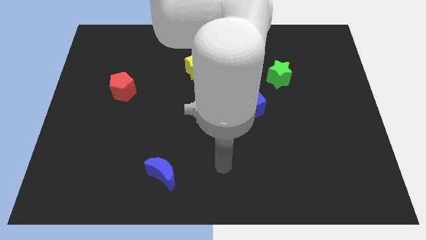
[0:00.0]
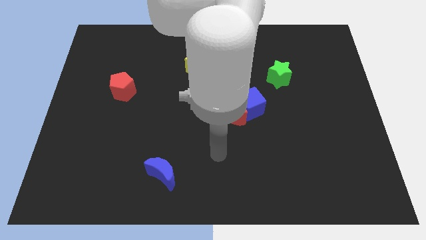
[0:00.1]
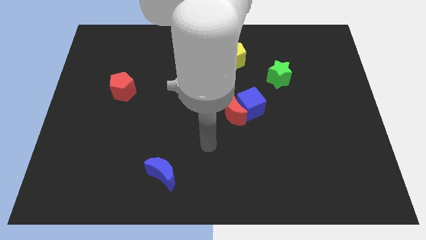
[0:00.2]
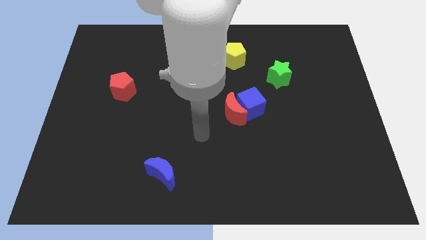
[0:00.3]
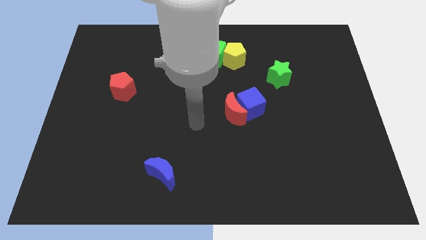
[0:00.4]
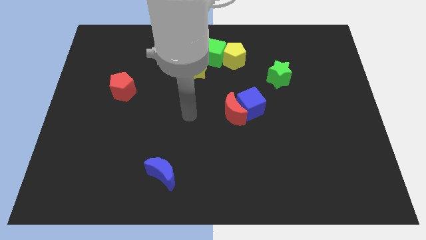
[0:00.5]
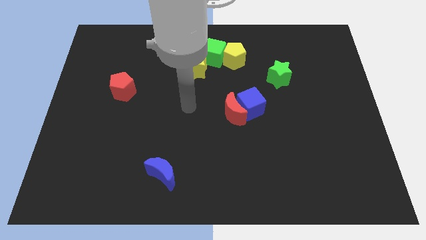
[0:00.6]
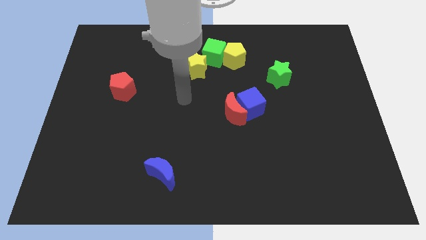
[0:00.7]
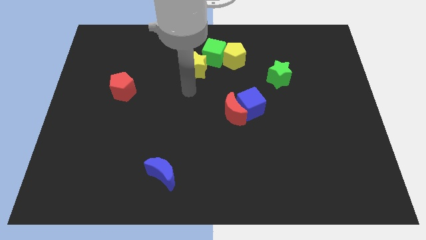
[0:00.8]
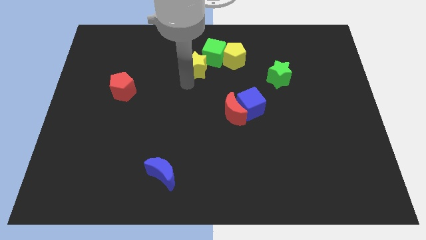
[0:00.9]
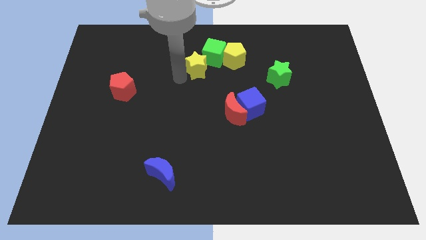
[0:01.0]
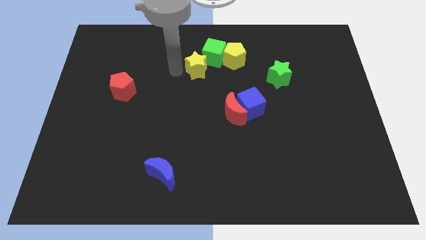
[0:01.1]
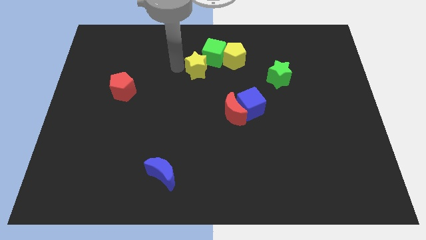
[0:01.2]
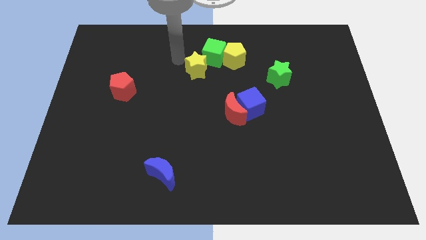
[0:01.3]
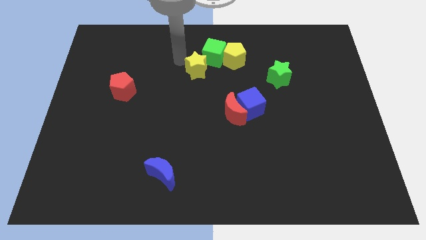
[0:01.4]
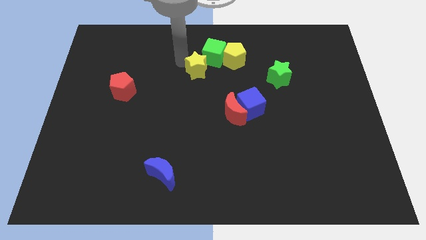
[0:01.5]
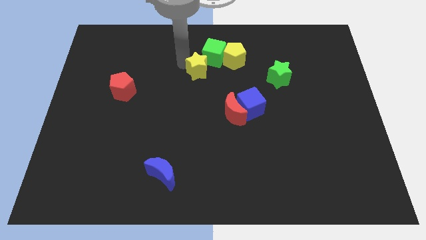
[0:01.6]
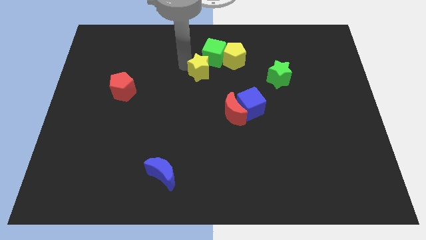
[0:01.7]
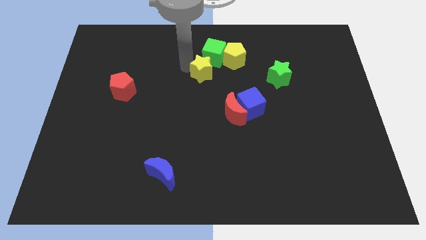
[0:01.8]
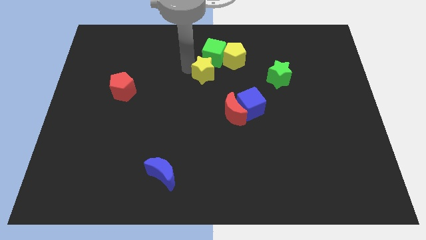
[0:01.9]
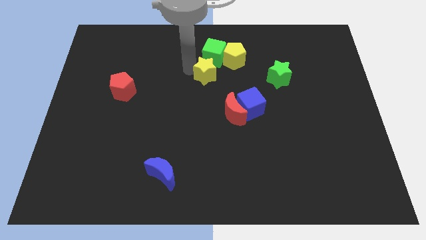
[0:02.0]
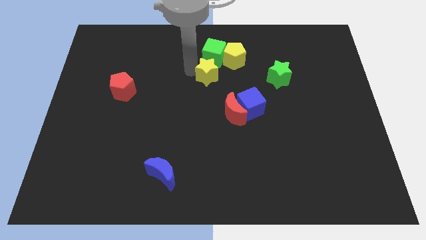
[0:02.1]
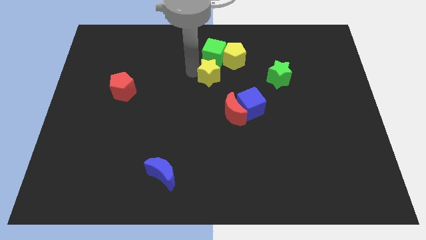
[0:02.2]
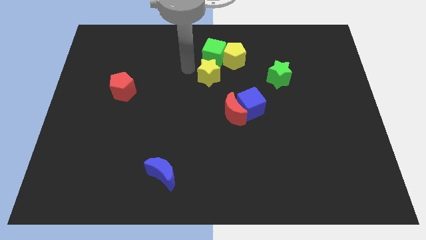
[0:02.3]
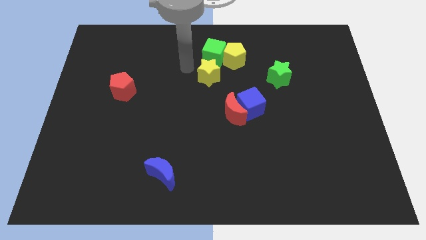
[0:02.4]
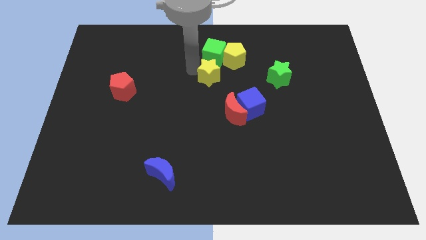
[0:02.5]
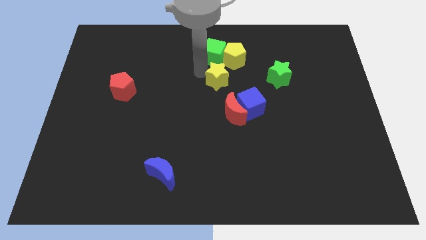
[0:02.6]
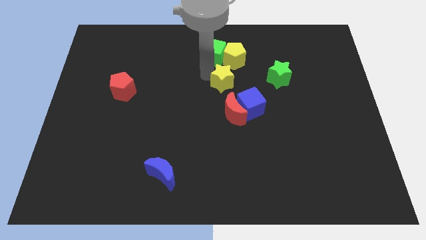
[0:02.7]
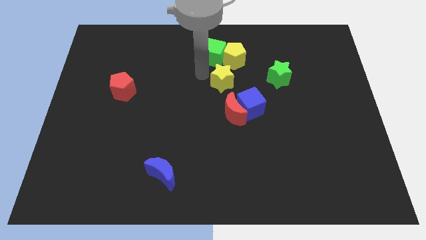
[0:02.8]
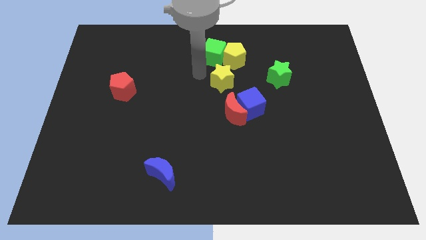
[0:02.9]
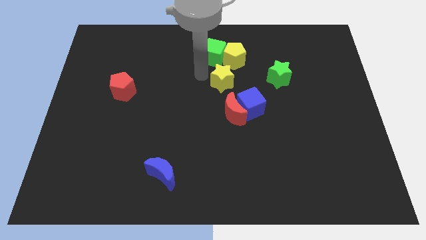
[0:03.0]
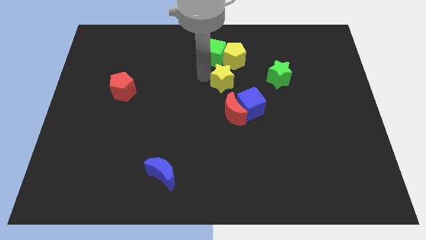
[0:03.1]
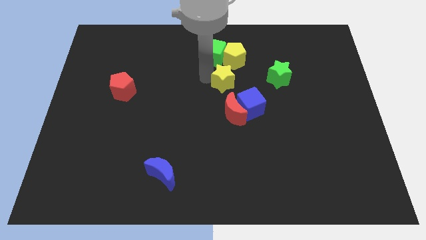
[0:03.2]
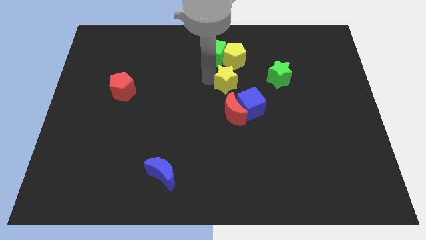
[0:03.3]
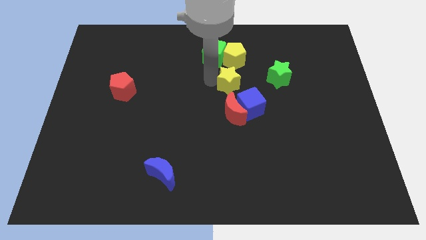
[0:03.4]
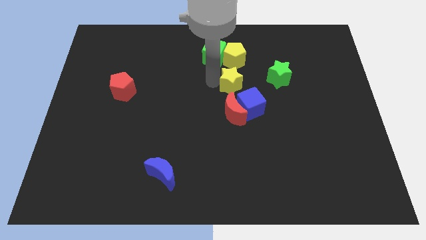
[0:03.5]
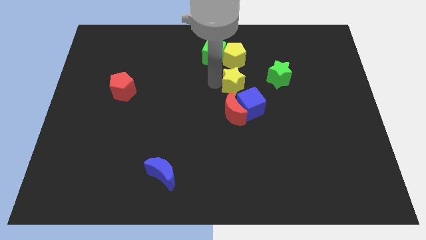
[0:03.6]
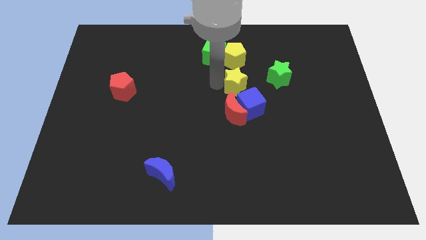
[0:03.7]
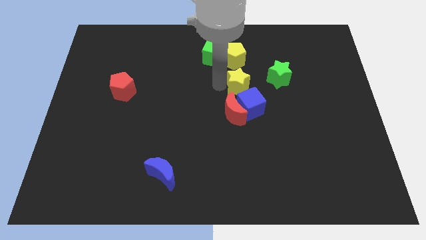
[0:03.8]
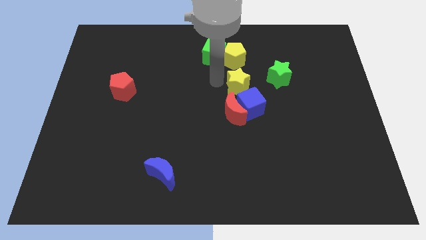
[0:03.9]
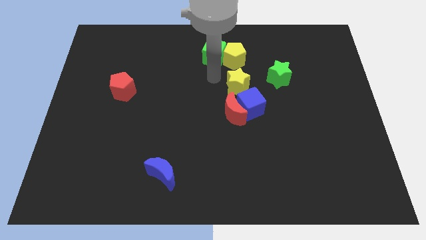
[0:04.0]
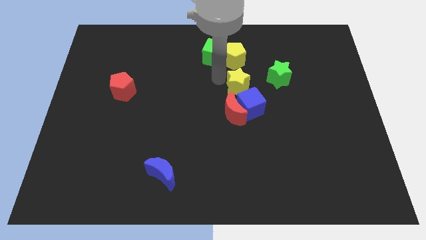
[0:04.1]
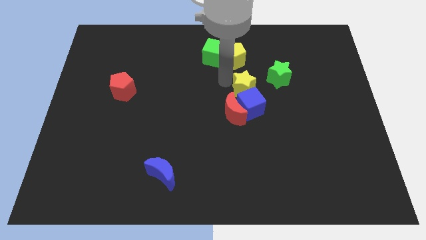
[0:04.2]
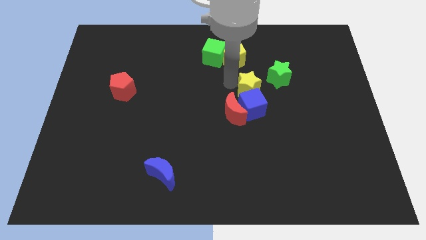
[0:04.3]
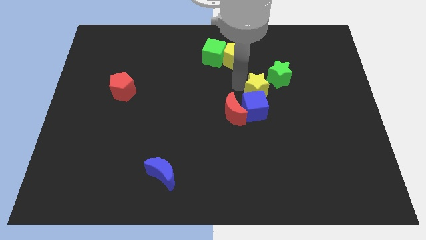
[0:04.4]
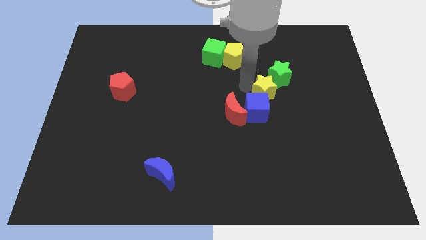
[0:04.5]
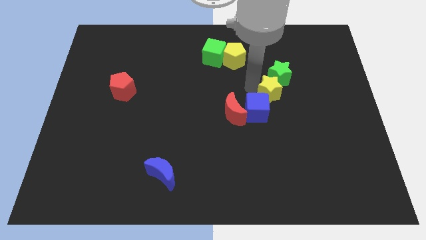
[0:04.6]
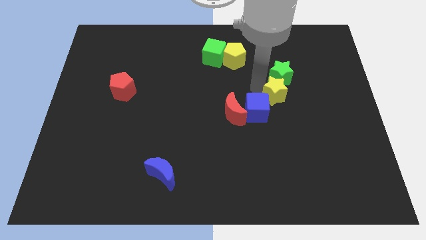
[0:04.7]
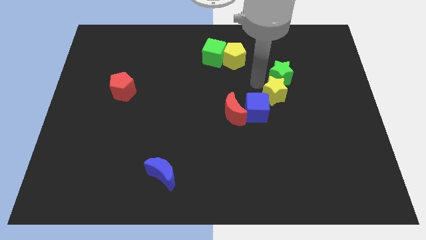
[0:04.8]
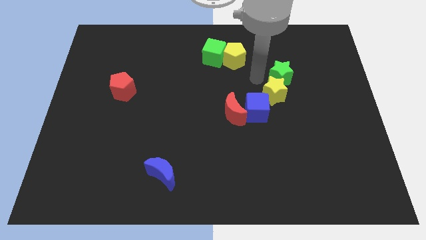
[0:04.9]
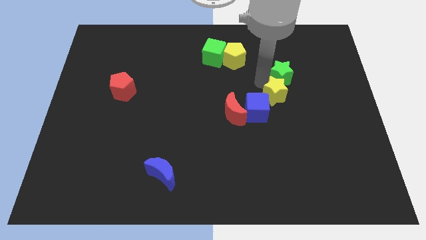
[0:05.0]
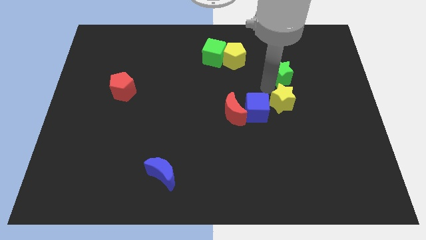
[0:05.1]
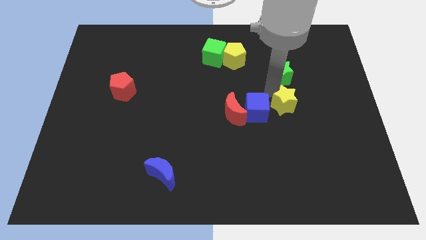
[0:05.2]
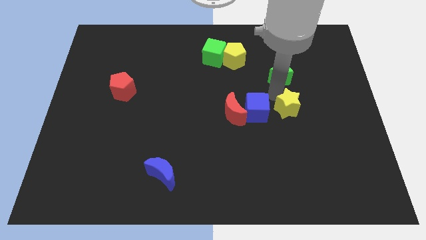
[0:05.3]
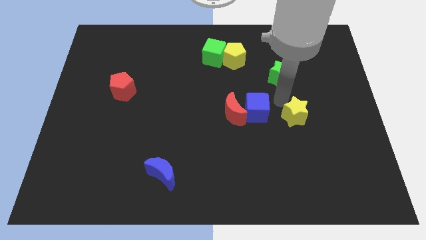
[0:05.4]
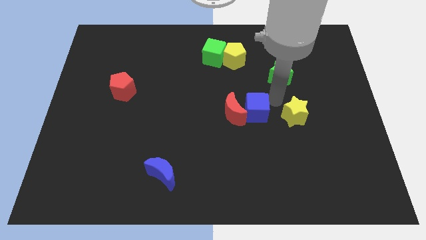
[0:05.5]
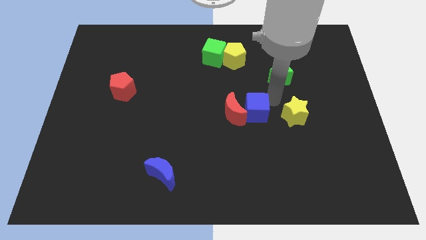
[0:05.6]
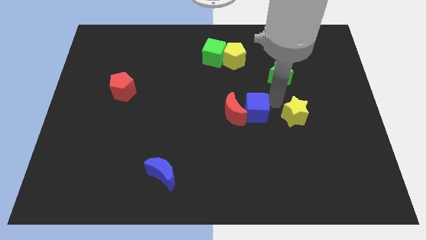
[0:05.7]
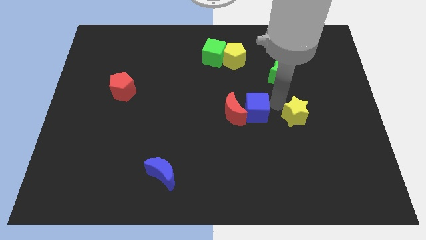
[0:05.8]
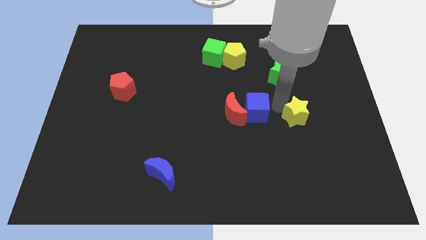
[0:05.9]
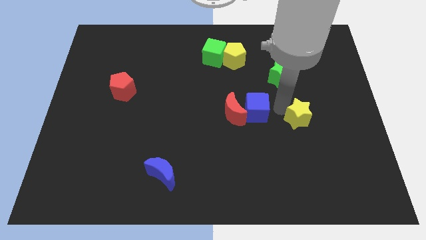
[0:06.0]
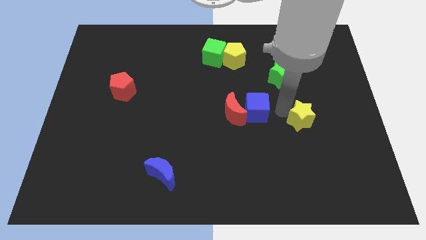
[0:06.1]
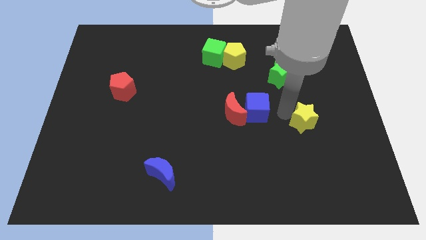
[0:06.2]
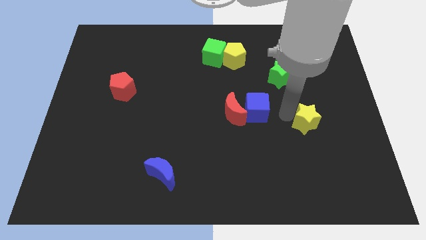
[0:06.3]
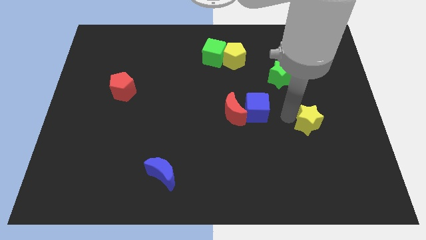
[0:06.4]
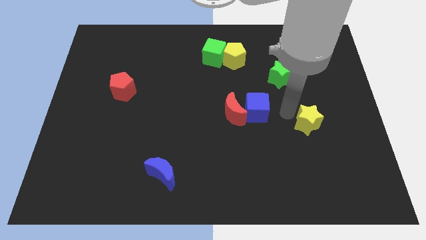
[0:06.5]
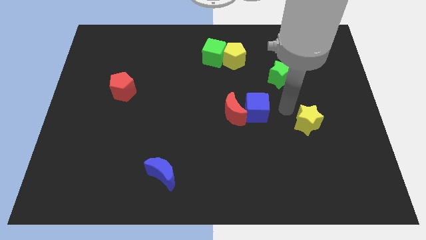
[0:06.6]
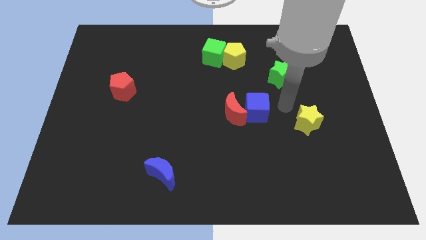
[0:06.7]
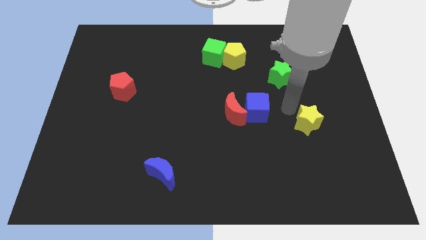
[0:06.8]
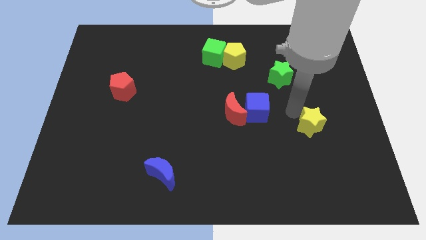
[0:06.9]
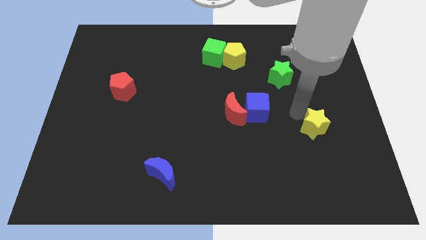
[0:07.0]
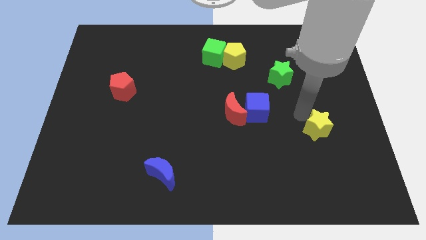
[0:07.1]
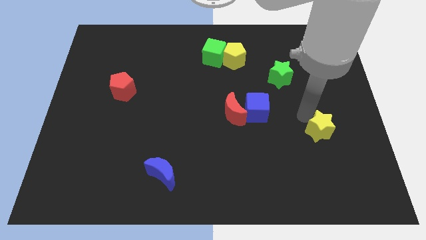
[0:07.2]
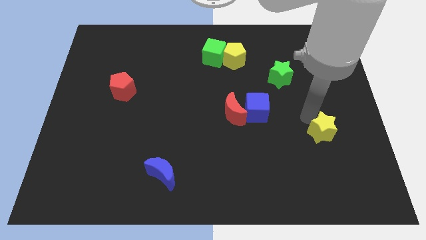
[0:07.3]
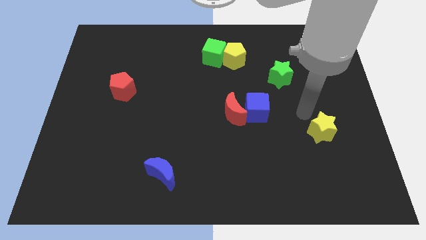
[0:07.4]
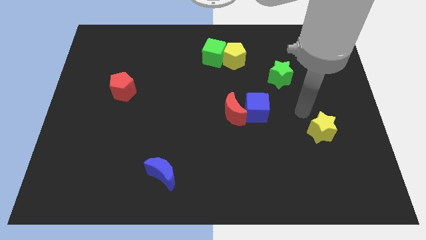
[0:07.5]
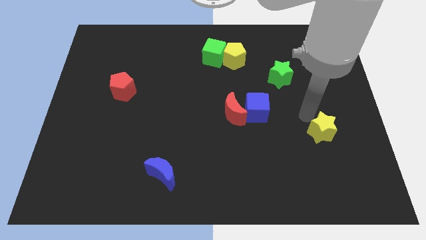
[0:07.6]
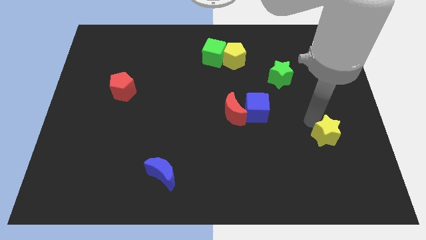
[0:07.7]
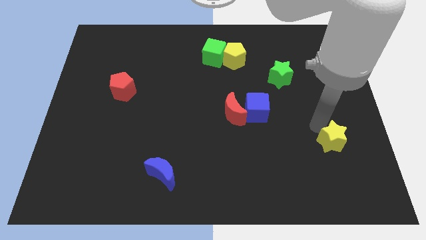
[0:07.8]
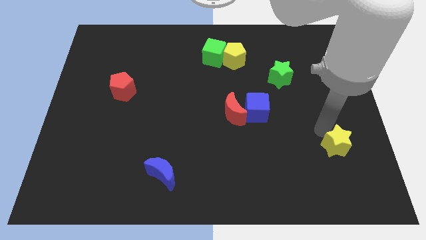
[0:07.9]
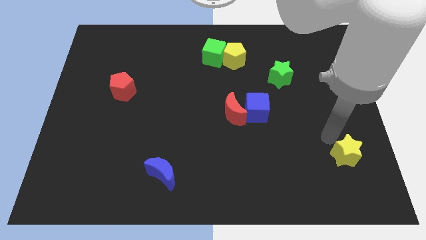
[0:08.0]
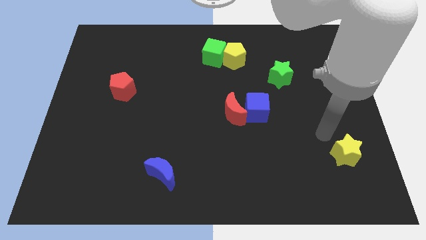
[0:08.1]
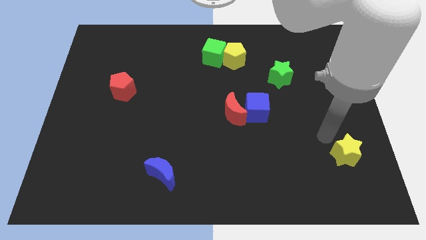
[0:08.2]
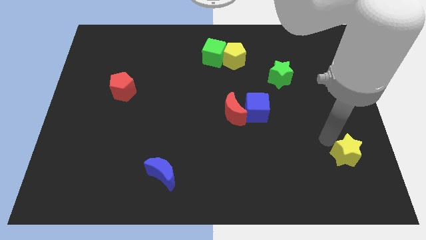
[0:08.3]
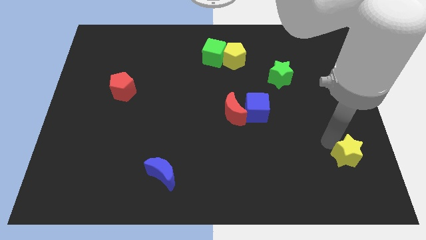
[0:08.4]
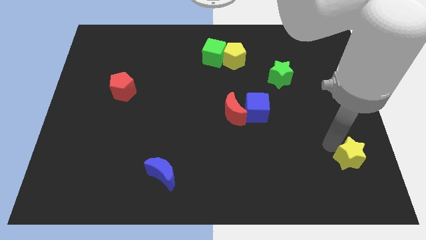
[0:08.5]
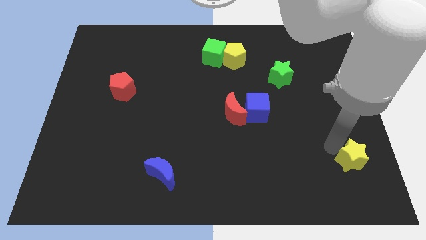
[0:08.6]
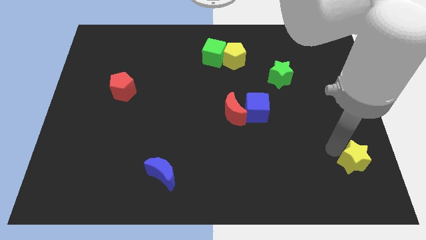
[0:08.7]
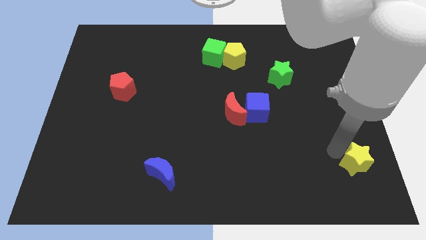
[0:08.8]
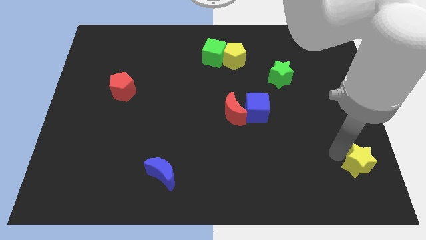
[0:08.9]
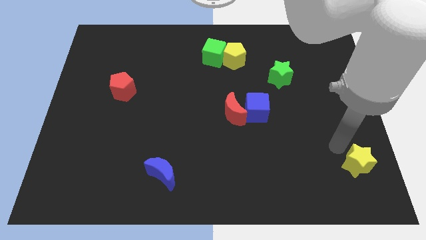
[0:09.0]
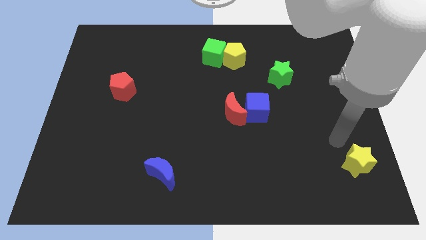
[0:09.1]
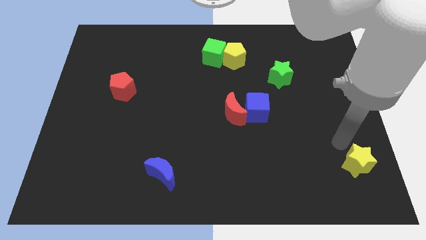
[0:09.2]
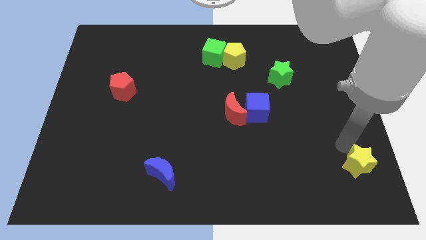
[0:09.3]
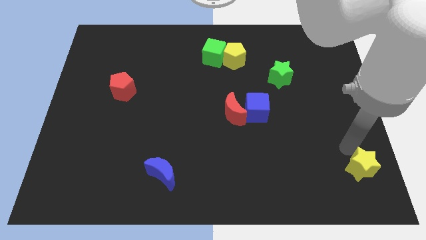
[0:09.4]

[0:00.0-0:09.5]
push the yellow star to the lower right corner
